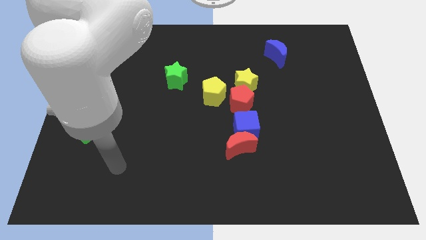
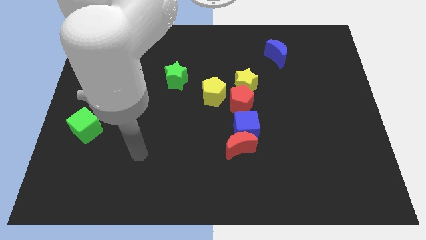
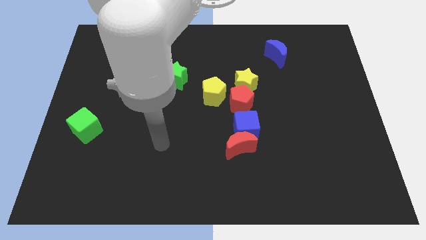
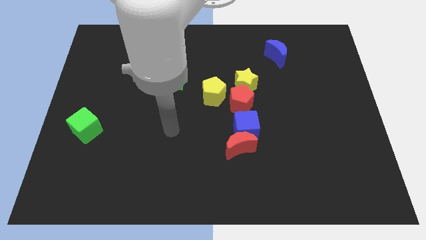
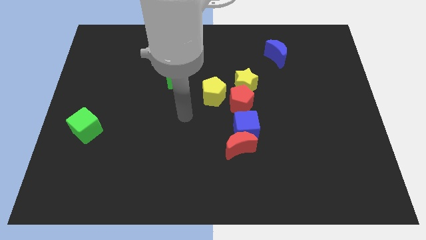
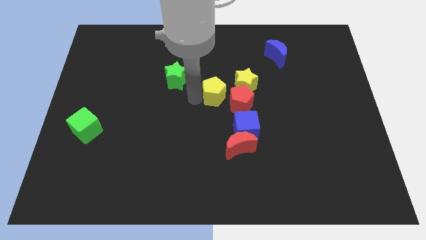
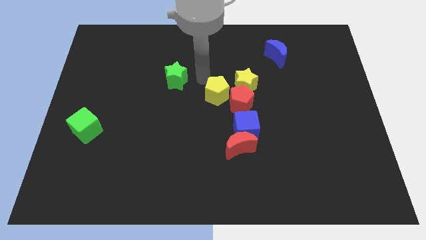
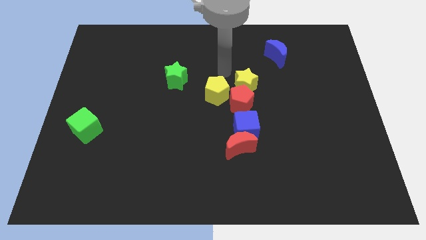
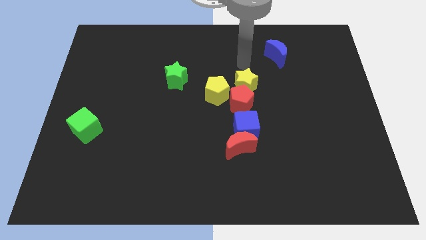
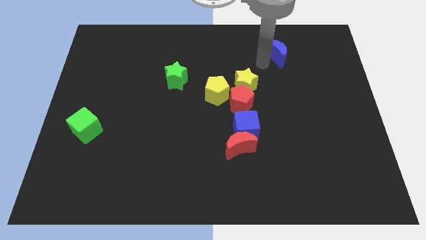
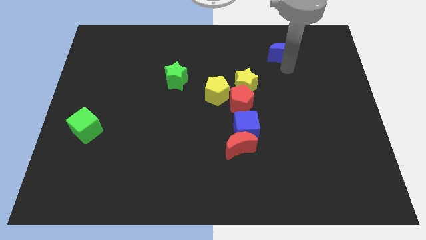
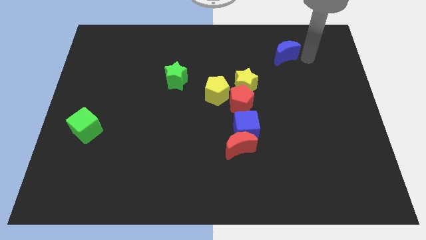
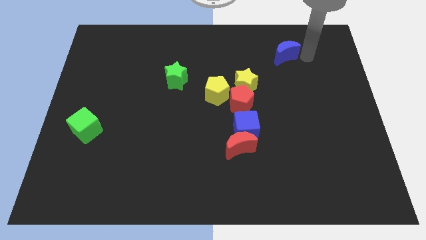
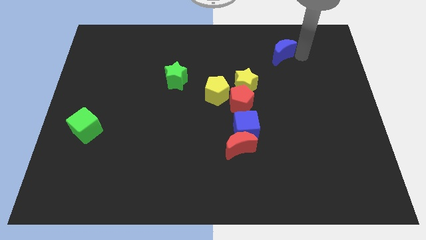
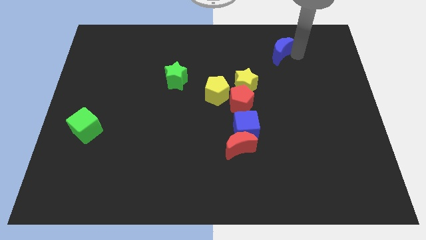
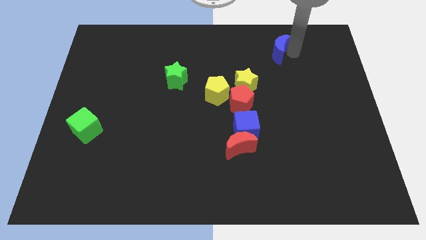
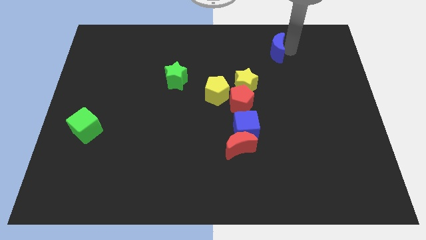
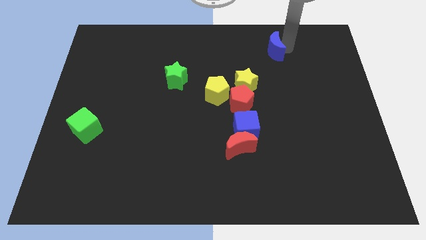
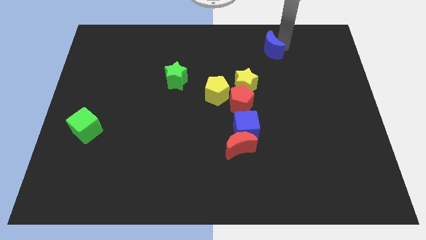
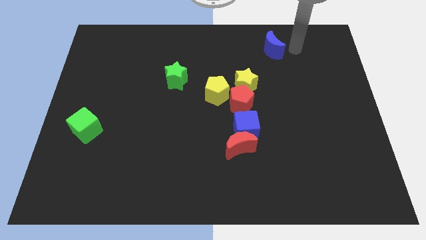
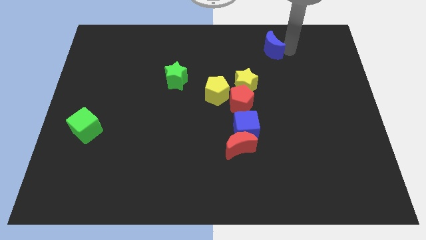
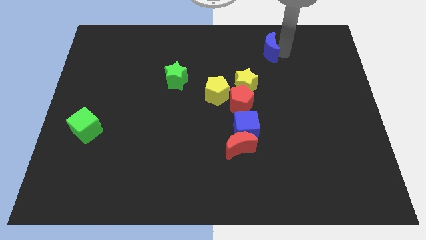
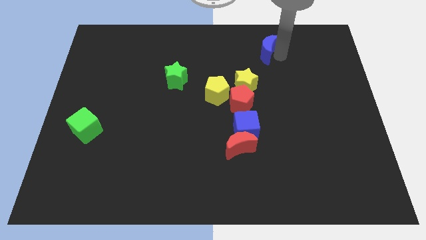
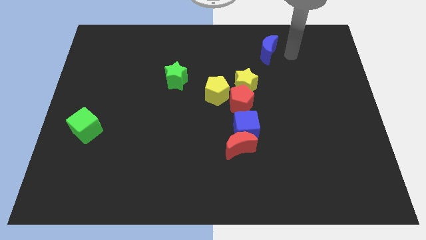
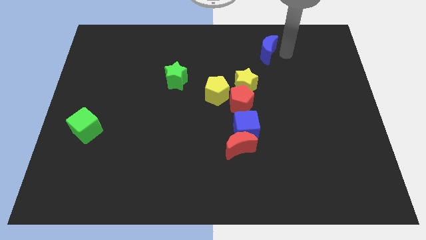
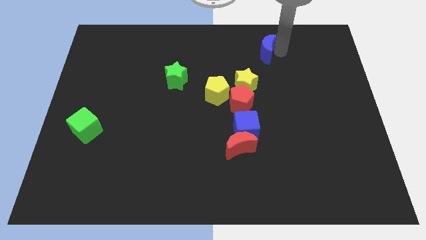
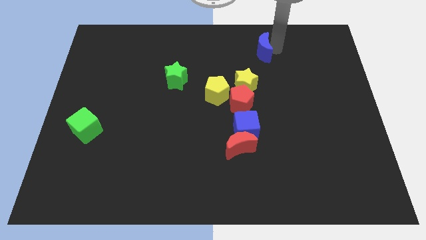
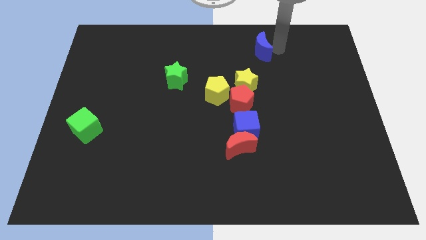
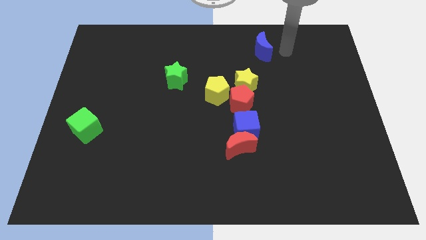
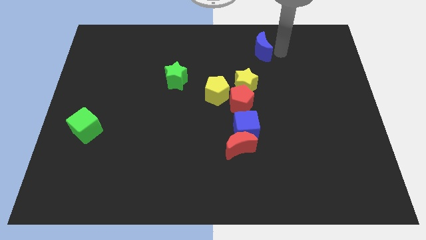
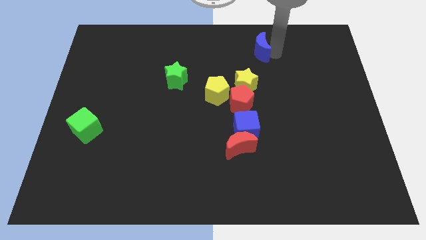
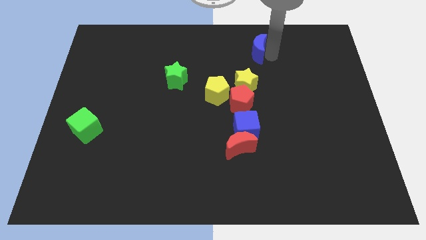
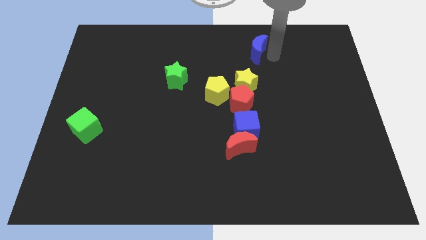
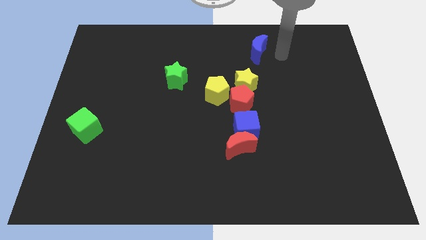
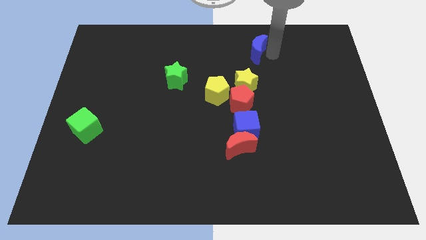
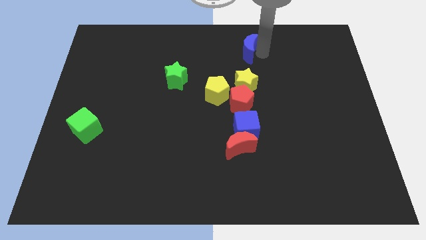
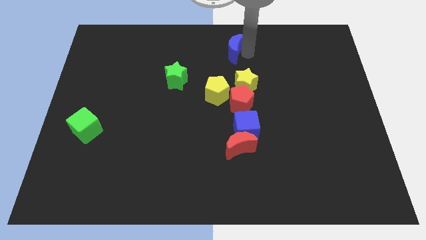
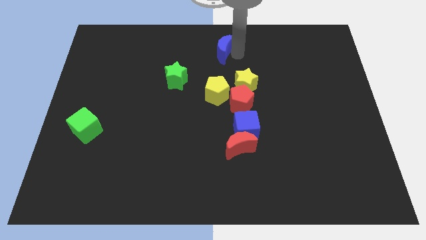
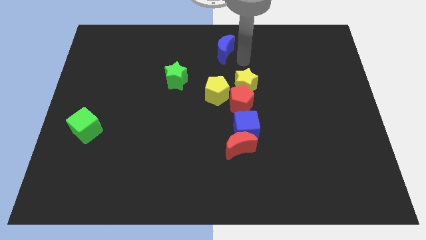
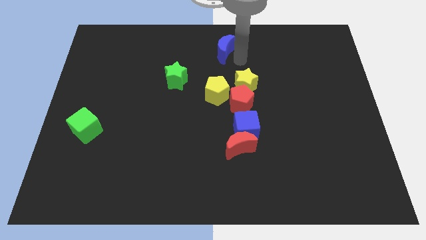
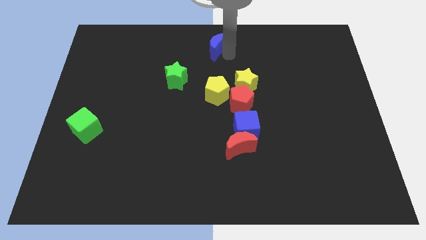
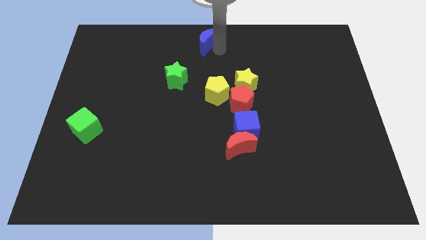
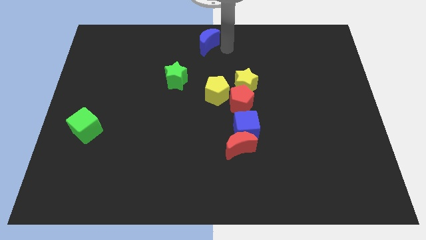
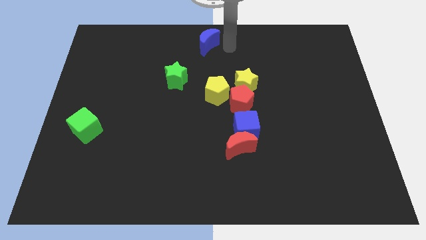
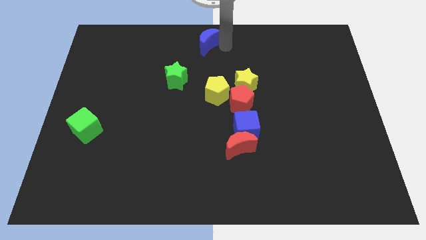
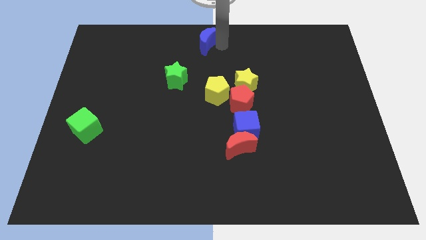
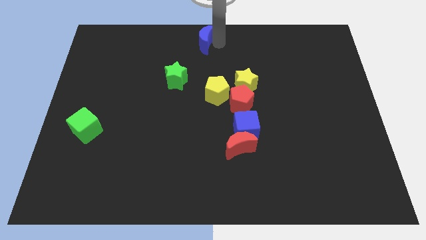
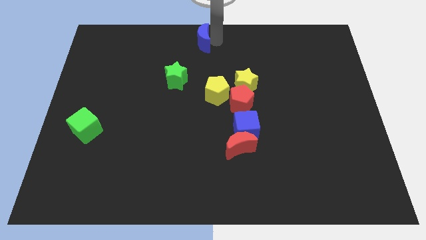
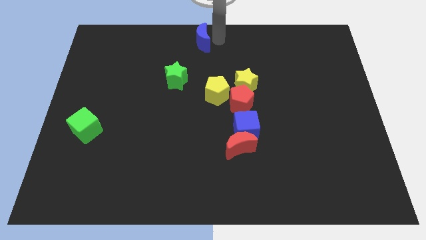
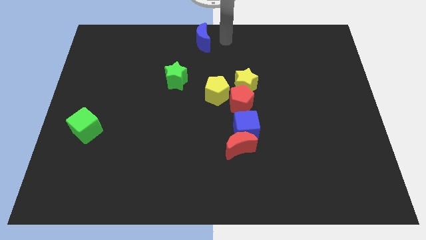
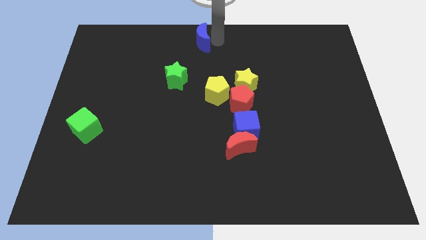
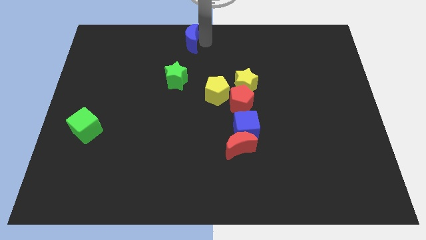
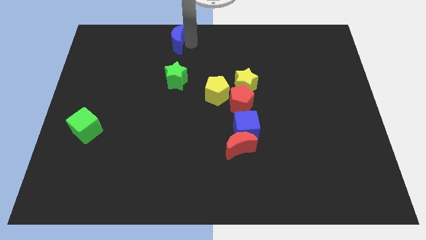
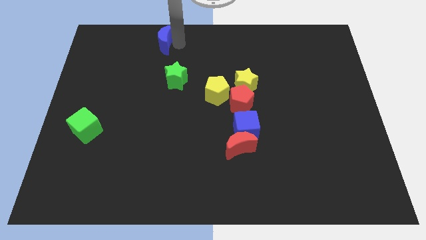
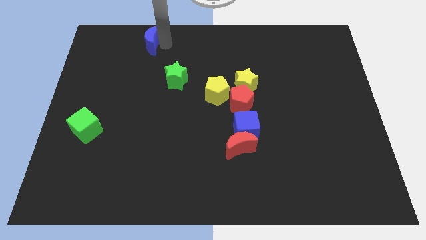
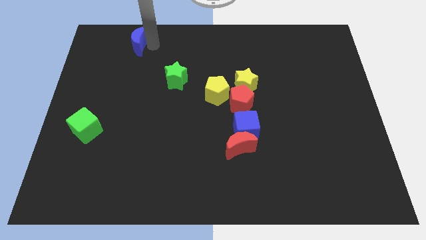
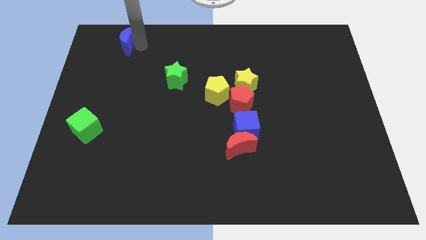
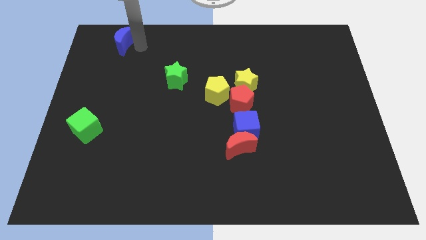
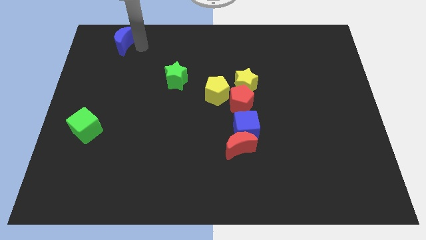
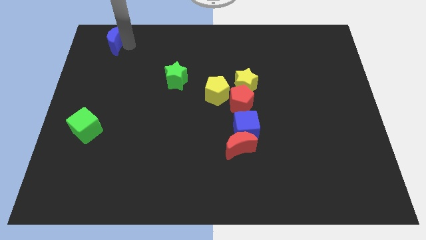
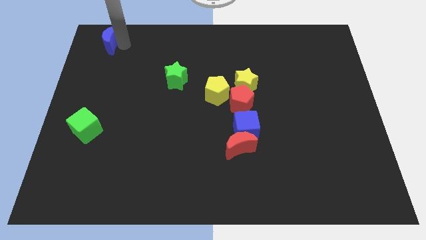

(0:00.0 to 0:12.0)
put the blue moon to the top left of the board
